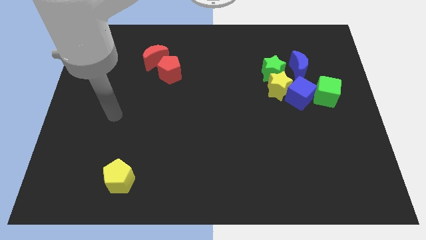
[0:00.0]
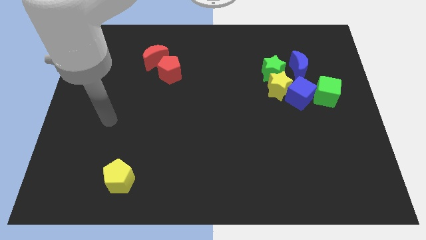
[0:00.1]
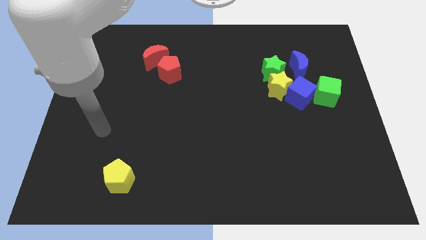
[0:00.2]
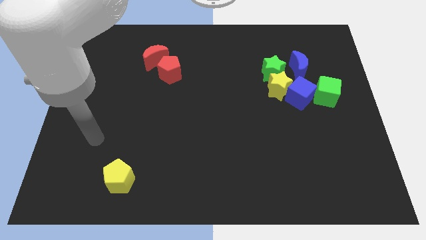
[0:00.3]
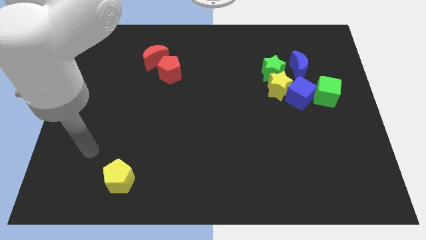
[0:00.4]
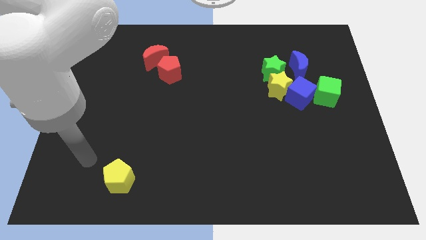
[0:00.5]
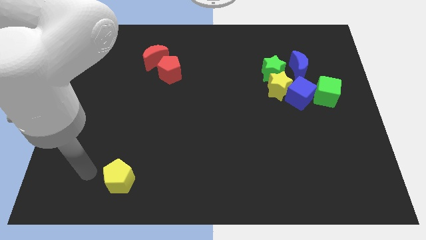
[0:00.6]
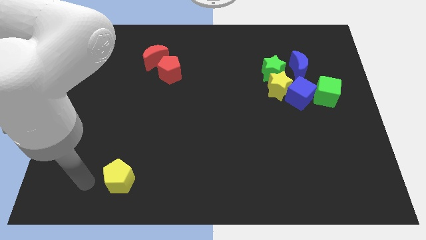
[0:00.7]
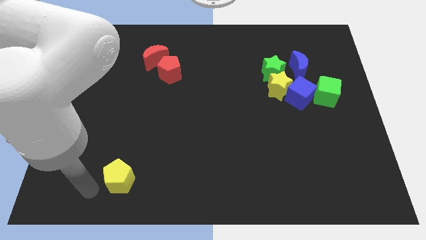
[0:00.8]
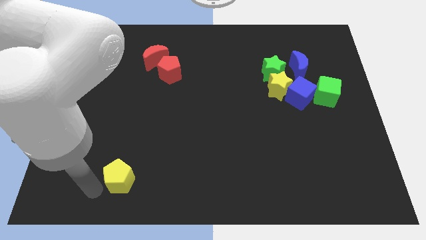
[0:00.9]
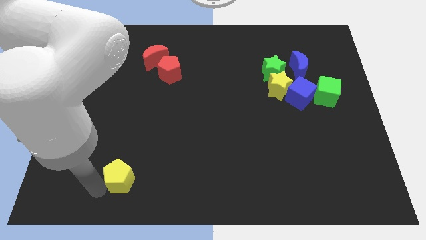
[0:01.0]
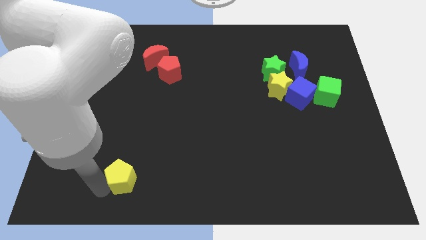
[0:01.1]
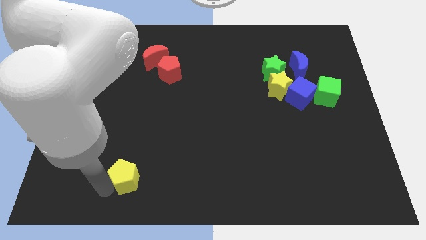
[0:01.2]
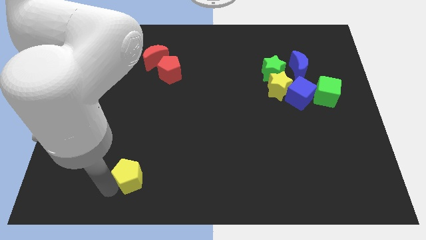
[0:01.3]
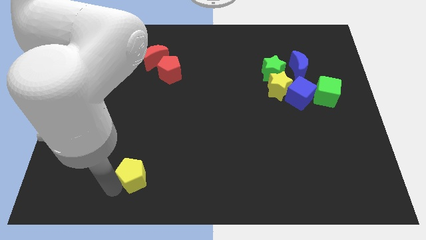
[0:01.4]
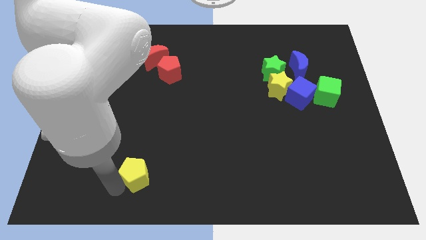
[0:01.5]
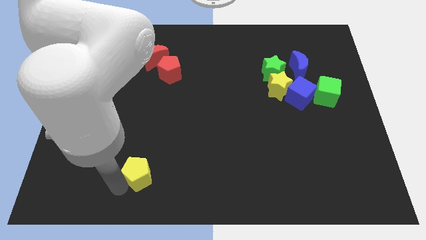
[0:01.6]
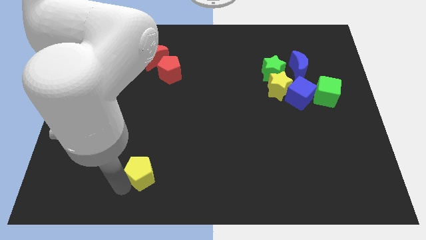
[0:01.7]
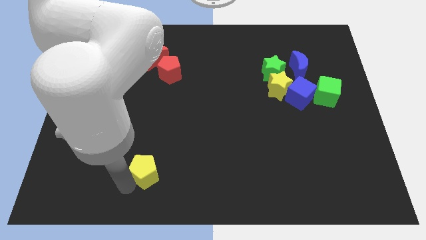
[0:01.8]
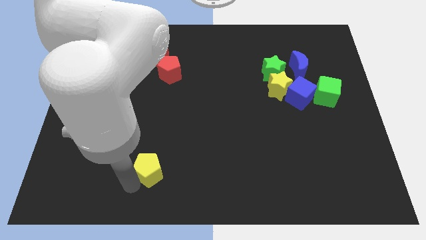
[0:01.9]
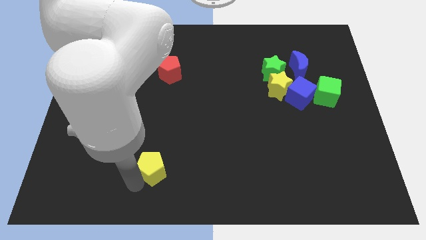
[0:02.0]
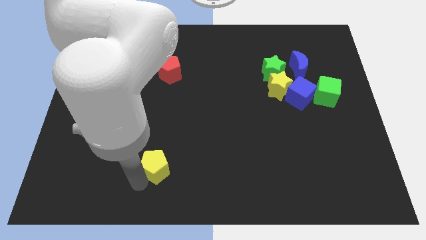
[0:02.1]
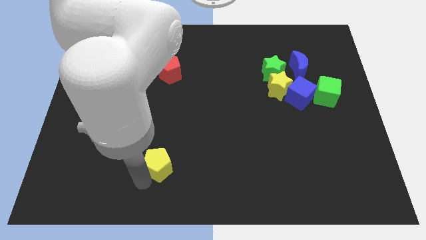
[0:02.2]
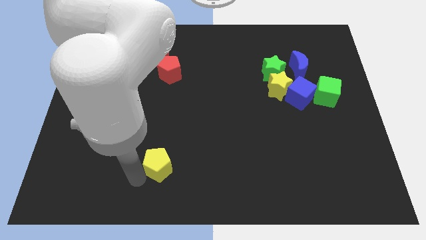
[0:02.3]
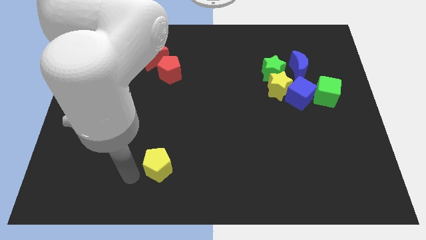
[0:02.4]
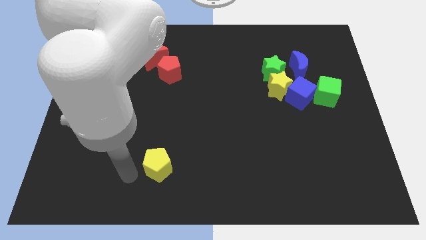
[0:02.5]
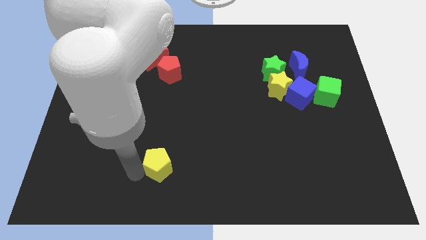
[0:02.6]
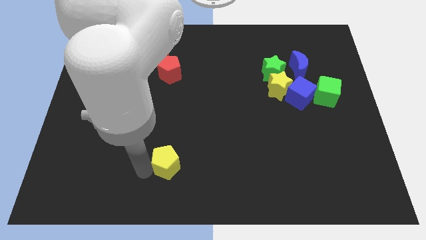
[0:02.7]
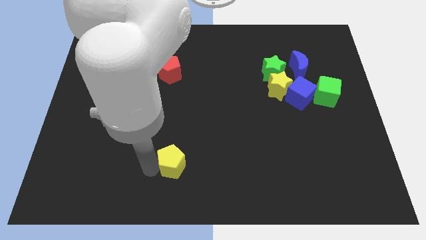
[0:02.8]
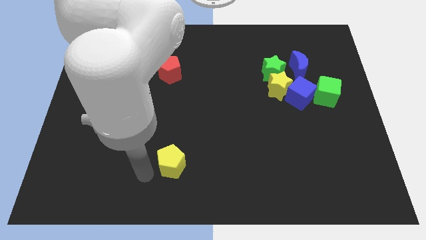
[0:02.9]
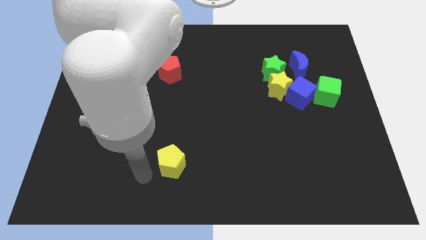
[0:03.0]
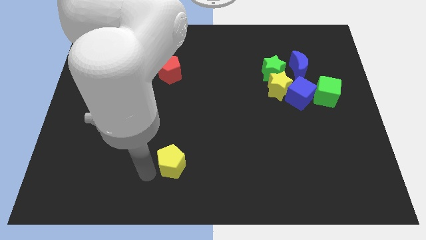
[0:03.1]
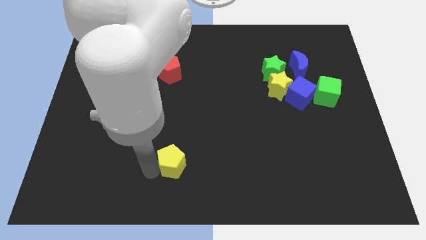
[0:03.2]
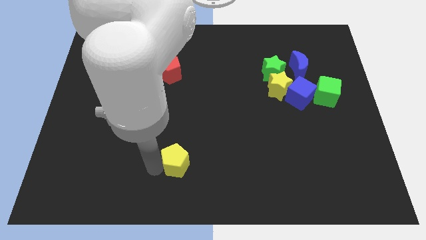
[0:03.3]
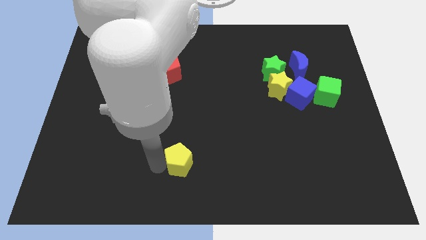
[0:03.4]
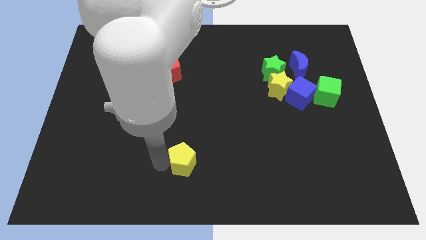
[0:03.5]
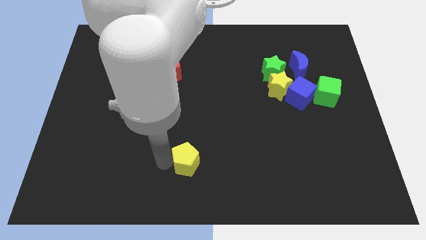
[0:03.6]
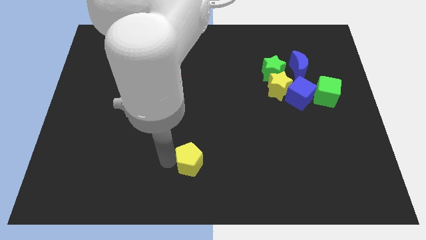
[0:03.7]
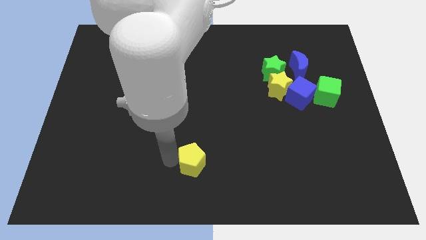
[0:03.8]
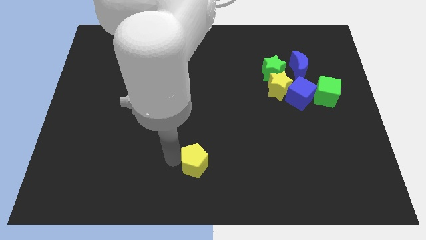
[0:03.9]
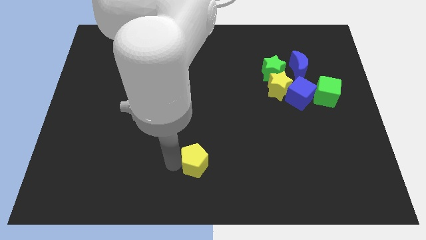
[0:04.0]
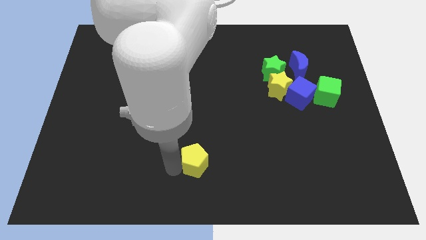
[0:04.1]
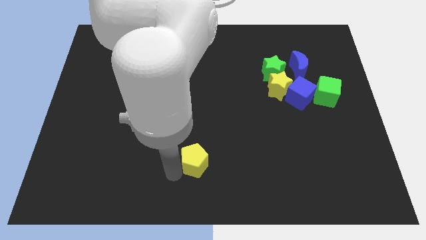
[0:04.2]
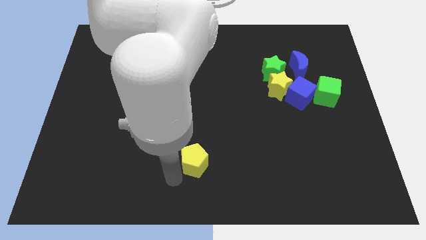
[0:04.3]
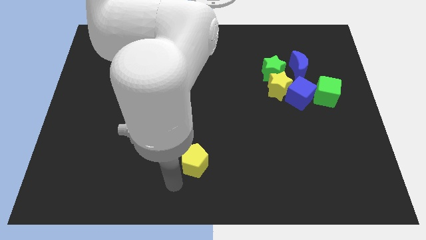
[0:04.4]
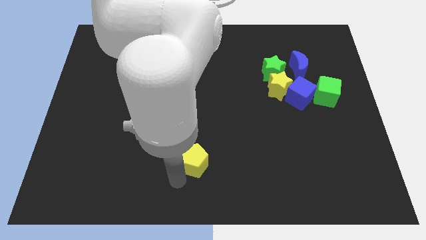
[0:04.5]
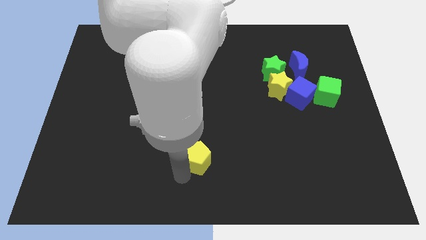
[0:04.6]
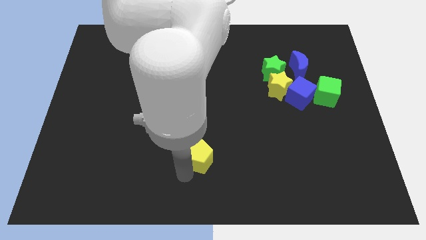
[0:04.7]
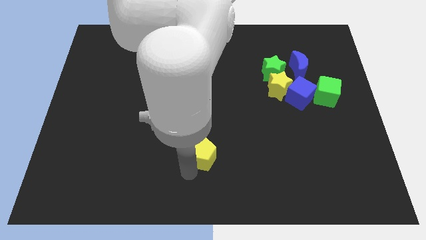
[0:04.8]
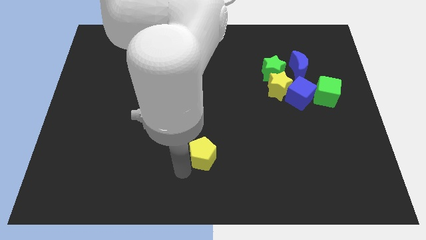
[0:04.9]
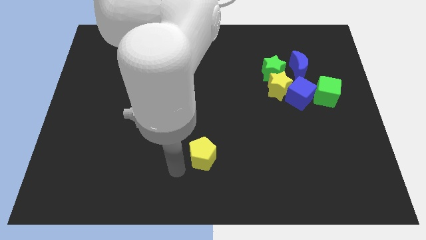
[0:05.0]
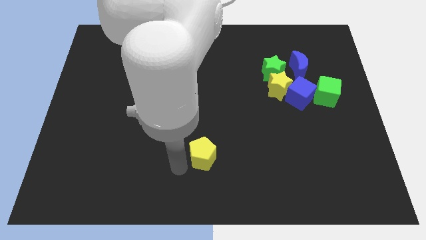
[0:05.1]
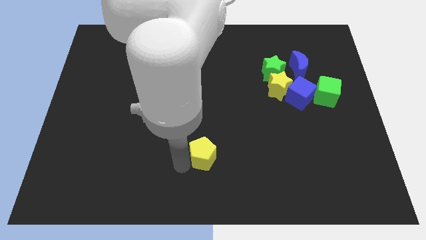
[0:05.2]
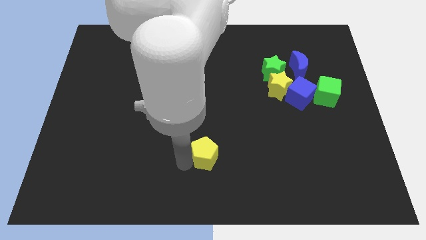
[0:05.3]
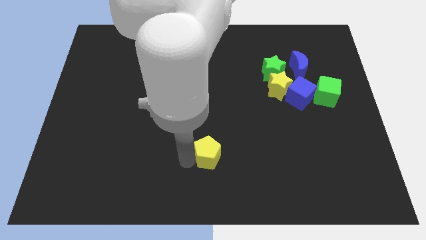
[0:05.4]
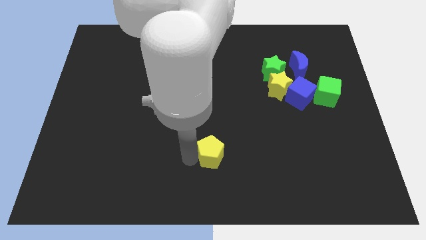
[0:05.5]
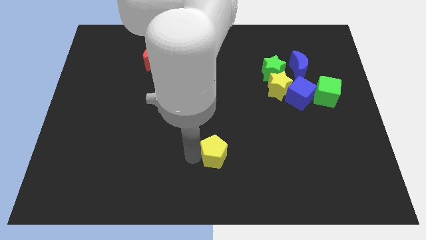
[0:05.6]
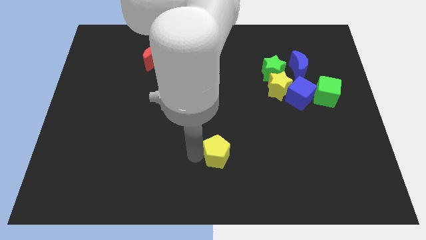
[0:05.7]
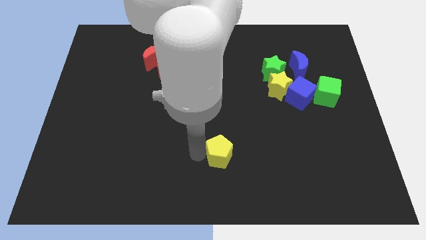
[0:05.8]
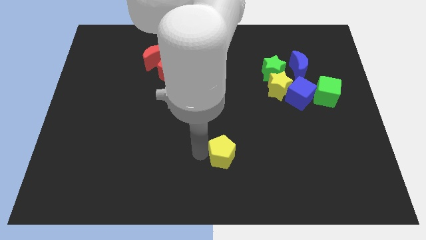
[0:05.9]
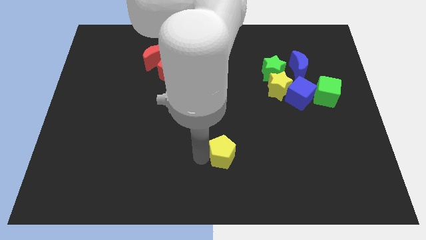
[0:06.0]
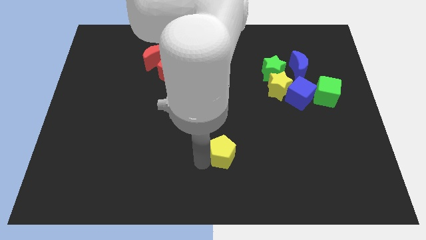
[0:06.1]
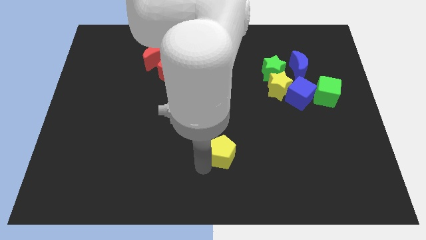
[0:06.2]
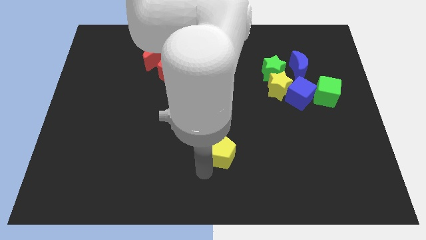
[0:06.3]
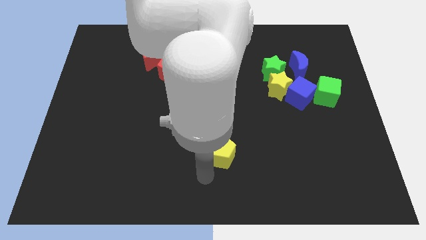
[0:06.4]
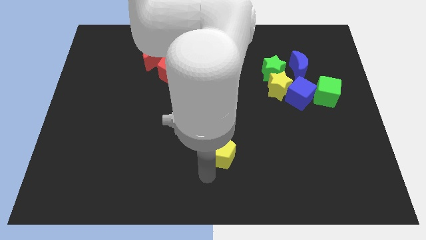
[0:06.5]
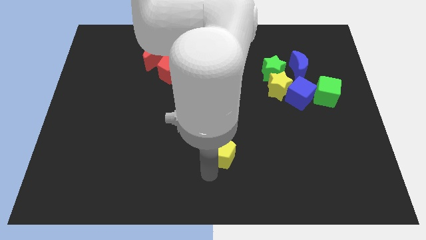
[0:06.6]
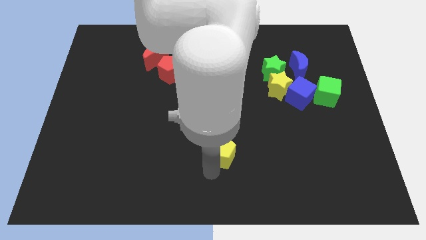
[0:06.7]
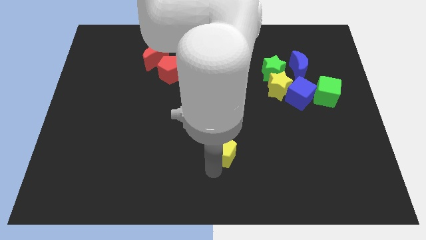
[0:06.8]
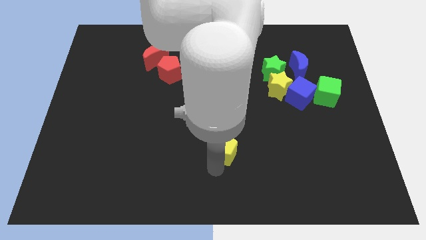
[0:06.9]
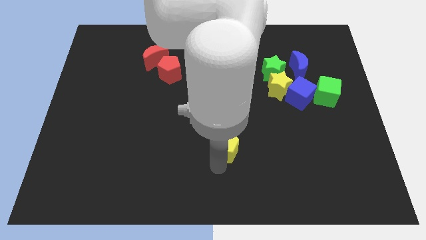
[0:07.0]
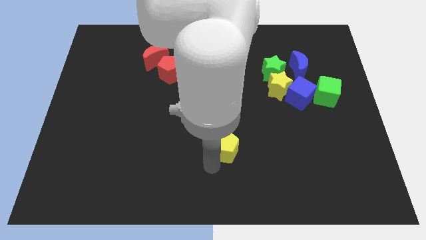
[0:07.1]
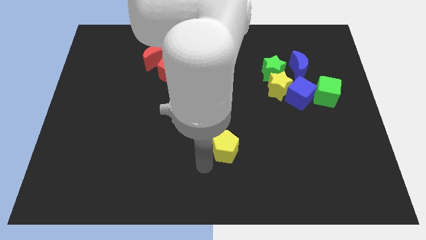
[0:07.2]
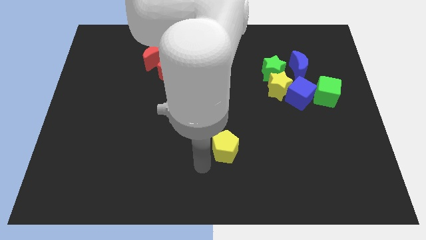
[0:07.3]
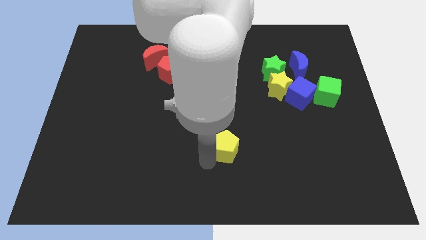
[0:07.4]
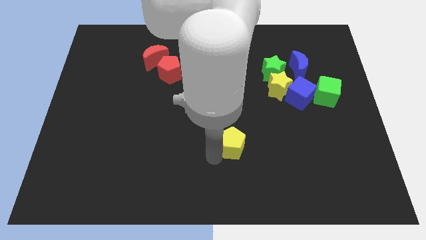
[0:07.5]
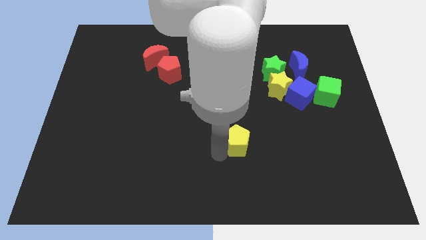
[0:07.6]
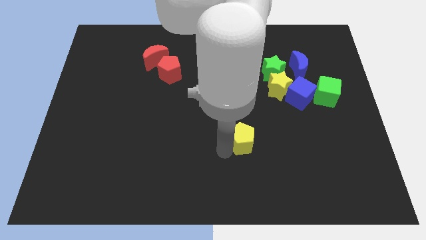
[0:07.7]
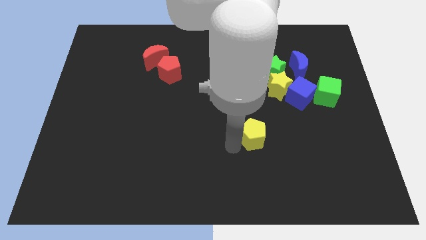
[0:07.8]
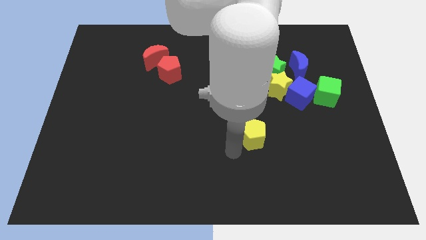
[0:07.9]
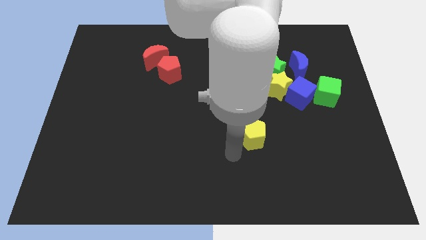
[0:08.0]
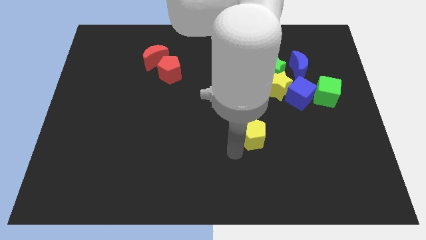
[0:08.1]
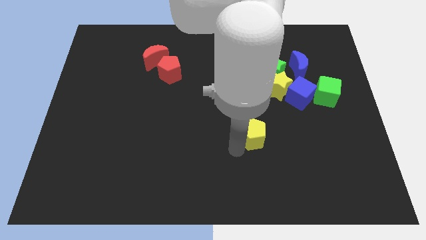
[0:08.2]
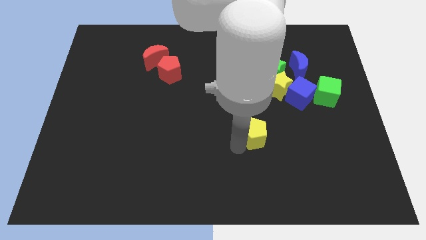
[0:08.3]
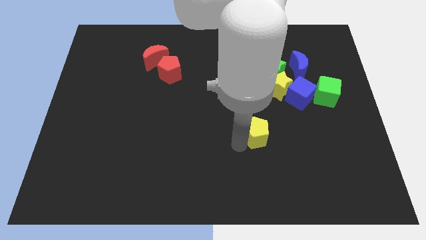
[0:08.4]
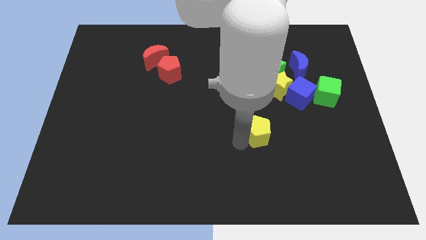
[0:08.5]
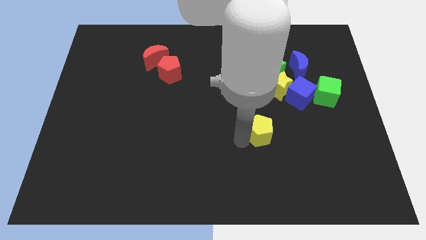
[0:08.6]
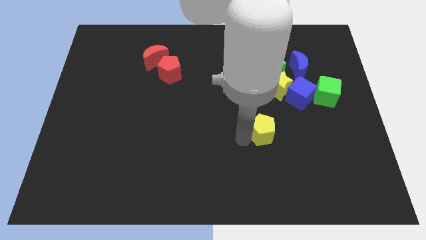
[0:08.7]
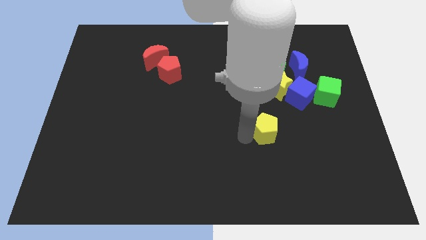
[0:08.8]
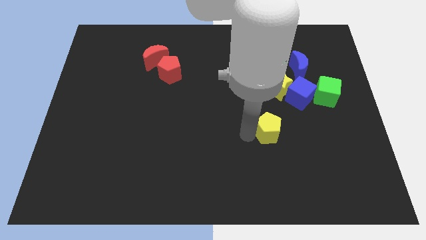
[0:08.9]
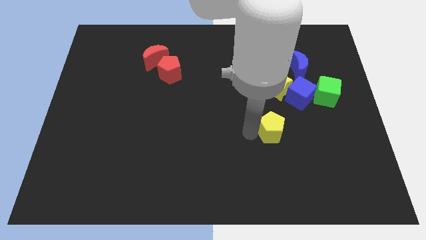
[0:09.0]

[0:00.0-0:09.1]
slide the yellow pentagon to the bottom left of the blue cube
